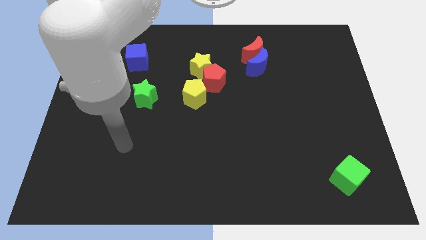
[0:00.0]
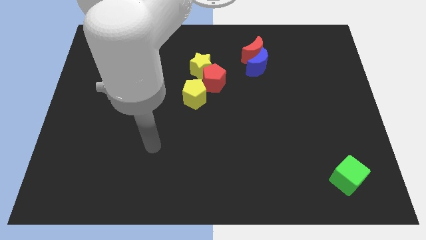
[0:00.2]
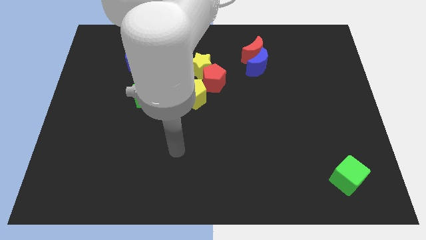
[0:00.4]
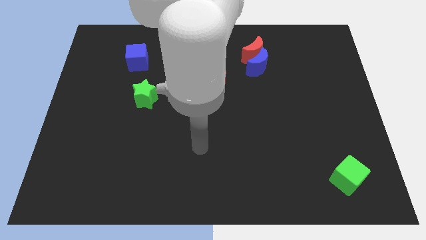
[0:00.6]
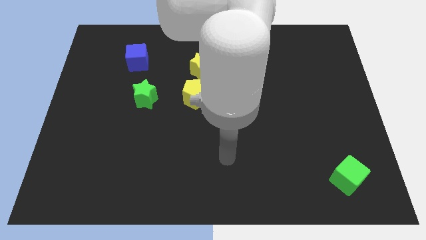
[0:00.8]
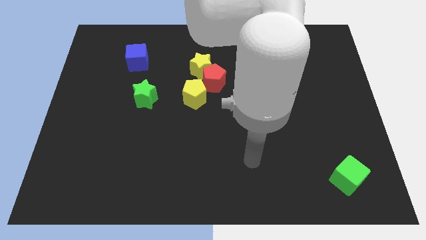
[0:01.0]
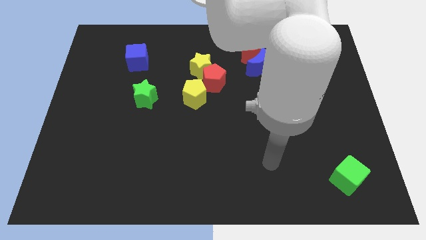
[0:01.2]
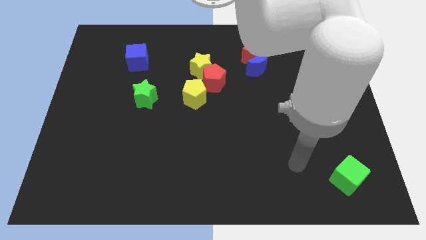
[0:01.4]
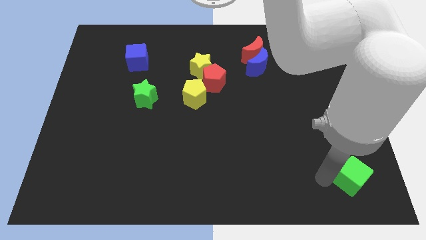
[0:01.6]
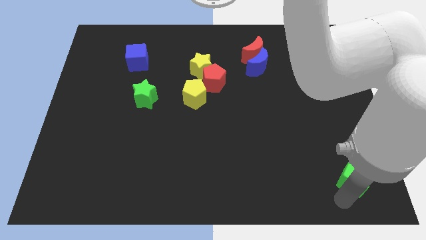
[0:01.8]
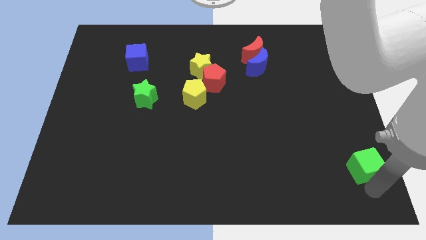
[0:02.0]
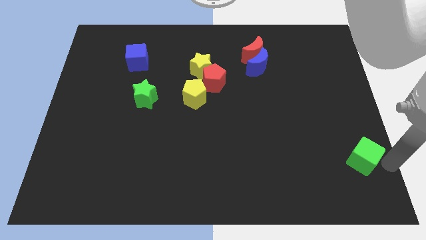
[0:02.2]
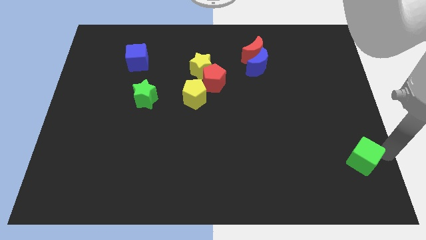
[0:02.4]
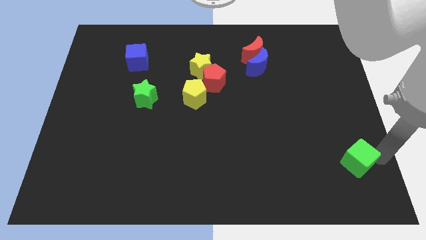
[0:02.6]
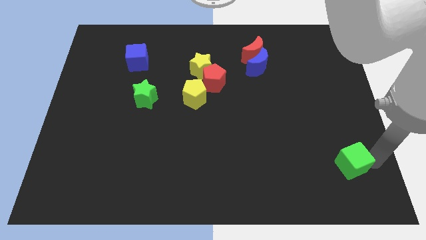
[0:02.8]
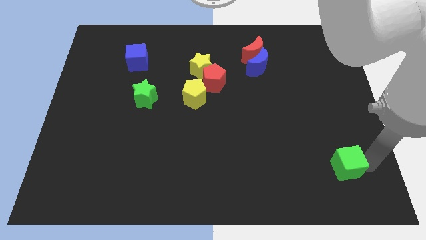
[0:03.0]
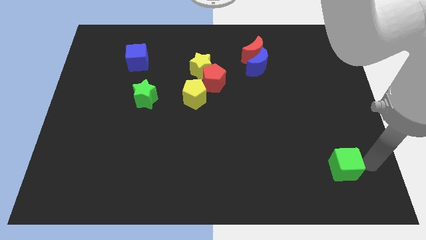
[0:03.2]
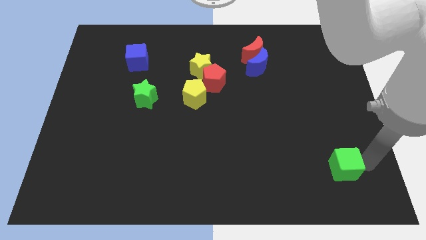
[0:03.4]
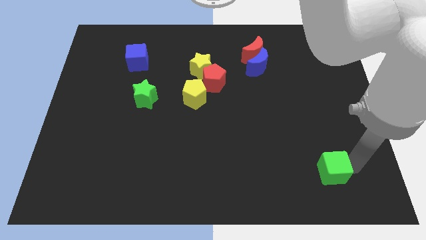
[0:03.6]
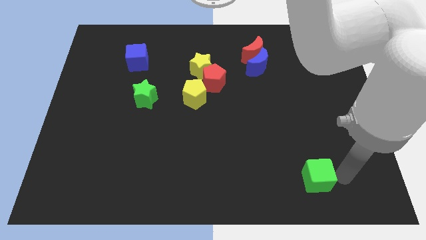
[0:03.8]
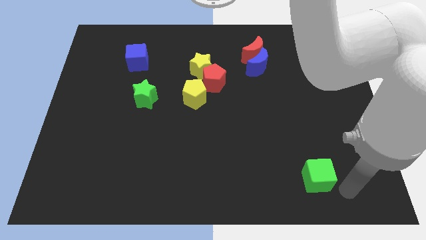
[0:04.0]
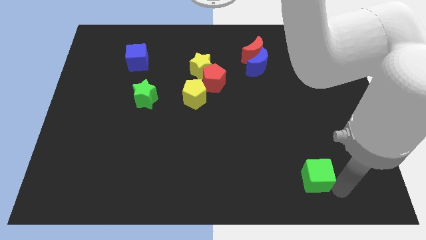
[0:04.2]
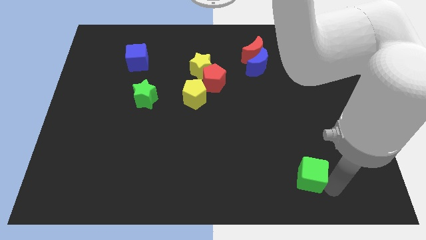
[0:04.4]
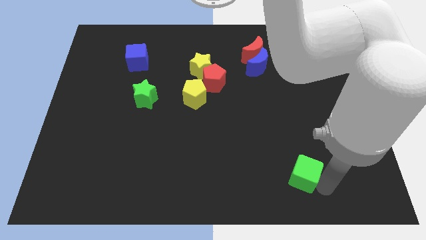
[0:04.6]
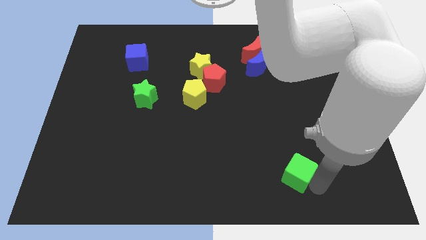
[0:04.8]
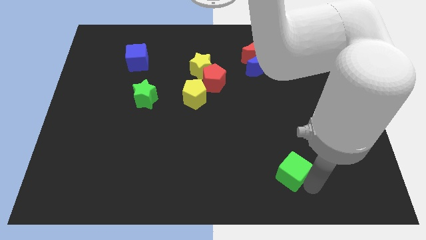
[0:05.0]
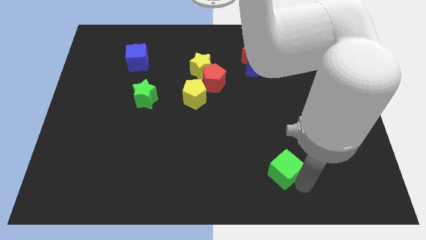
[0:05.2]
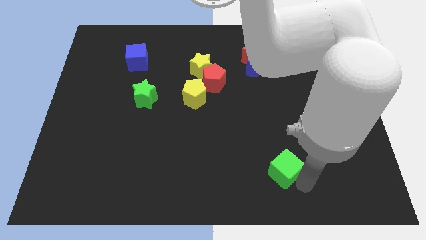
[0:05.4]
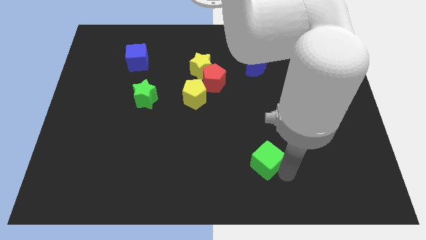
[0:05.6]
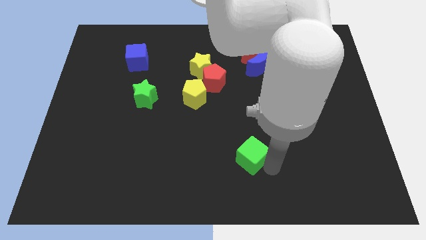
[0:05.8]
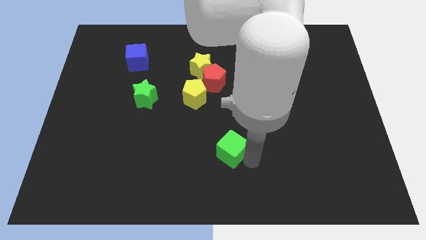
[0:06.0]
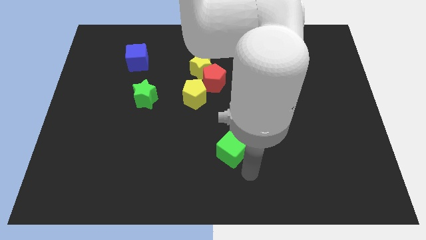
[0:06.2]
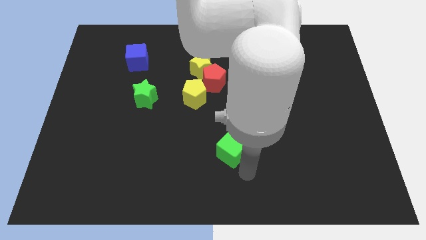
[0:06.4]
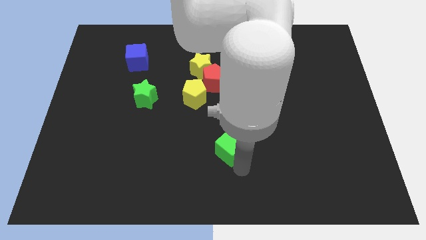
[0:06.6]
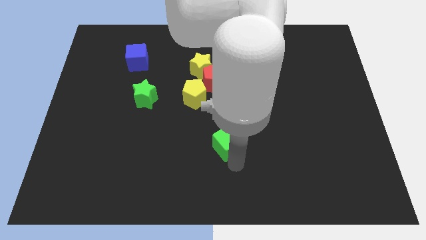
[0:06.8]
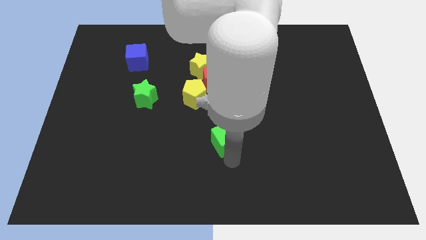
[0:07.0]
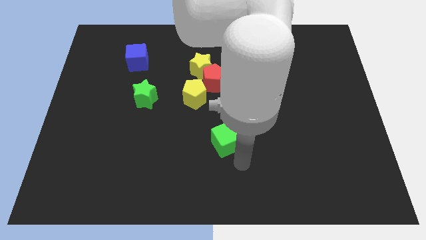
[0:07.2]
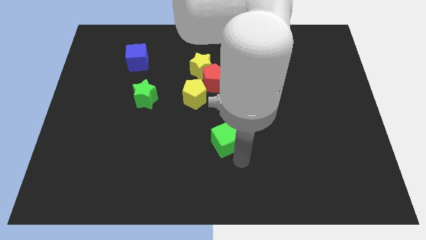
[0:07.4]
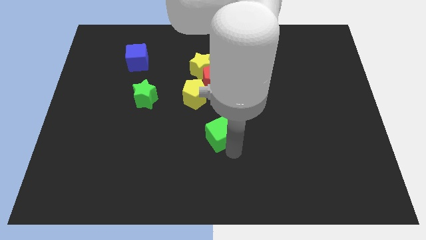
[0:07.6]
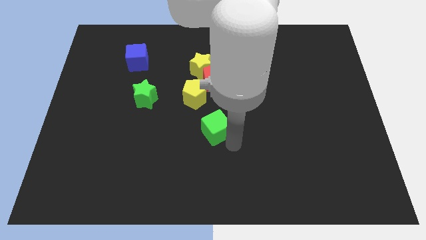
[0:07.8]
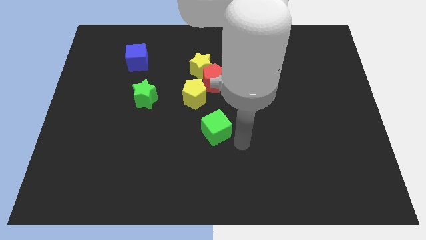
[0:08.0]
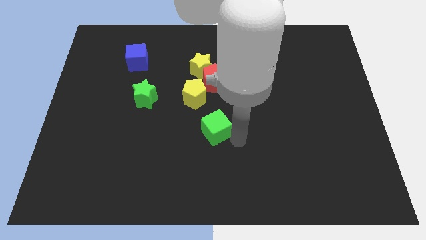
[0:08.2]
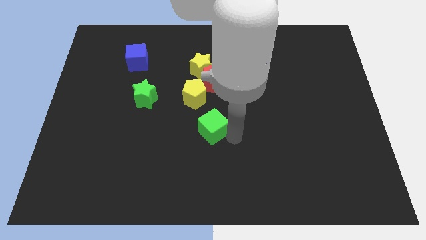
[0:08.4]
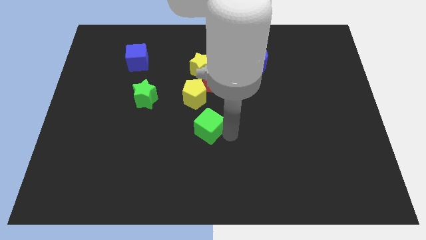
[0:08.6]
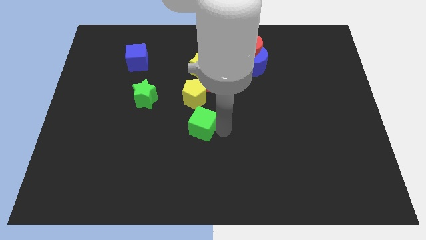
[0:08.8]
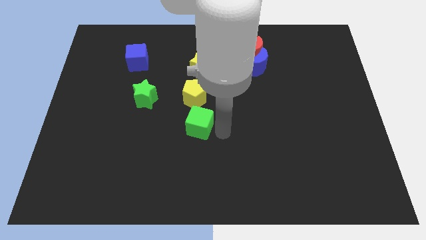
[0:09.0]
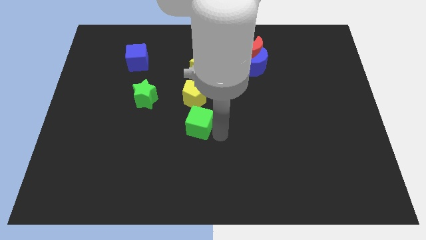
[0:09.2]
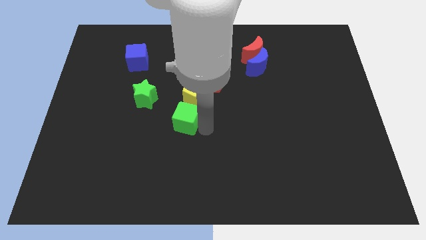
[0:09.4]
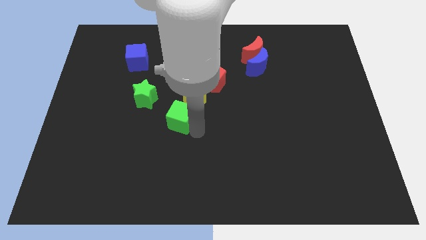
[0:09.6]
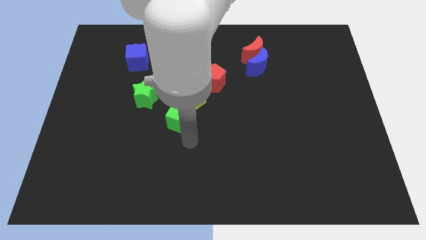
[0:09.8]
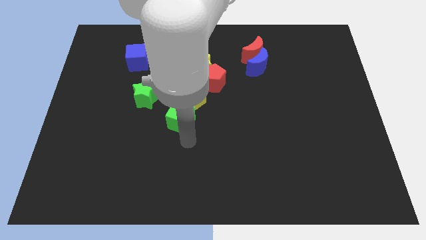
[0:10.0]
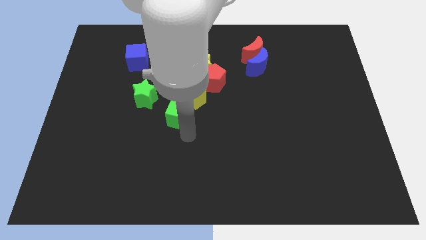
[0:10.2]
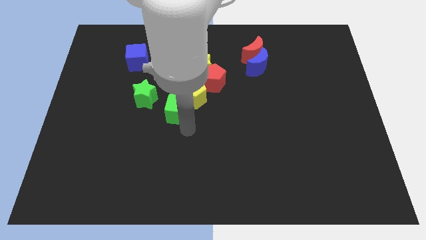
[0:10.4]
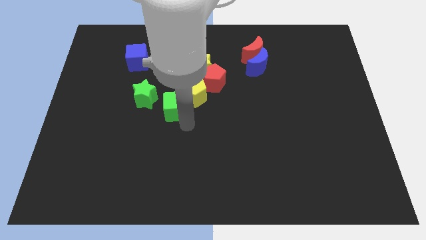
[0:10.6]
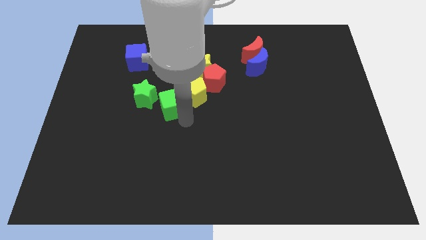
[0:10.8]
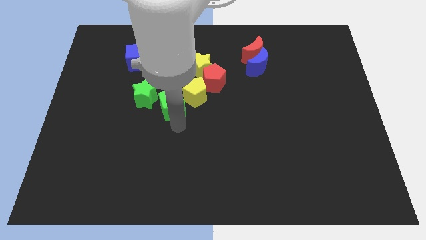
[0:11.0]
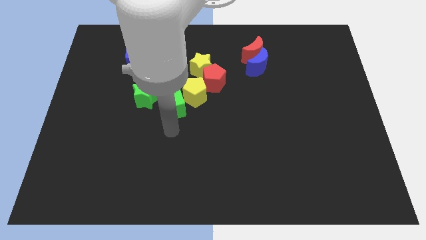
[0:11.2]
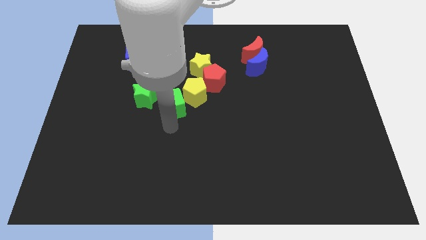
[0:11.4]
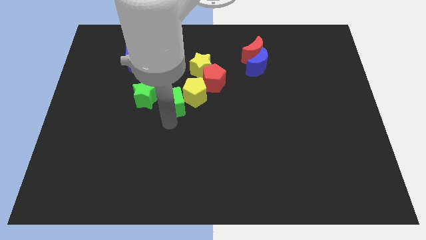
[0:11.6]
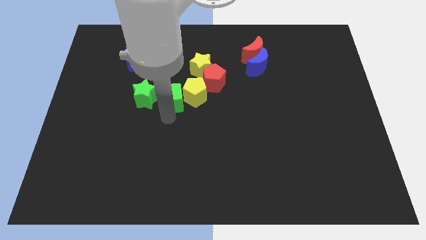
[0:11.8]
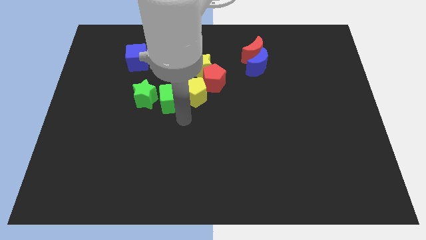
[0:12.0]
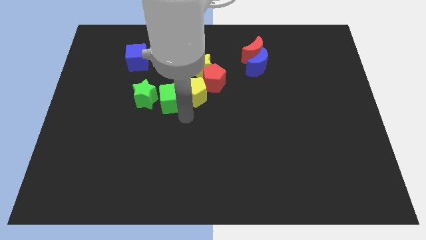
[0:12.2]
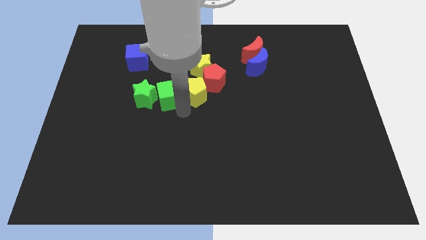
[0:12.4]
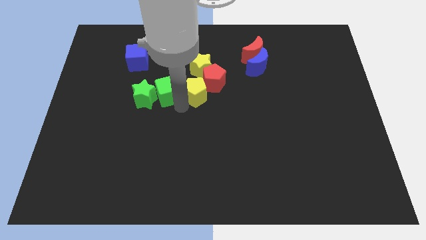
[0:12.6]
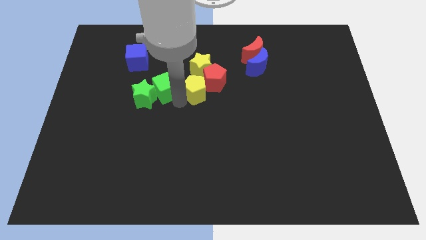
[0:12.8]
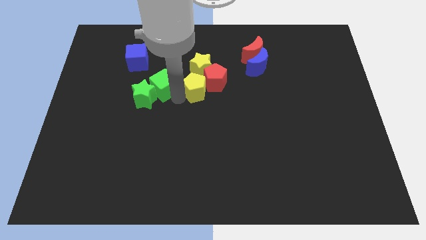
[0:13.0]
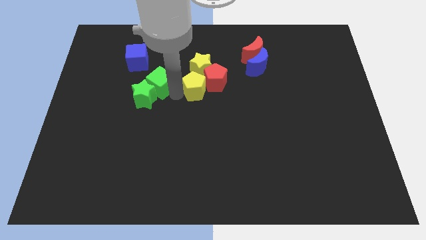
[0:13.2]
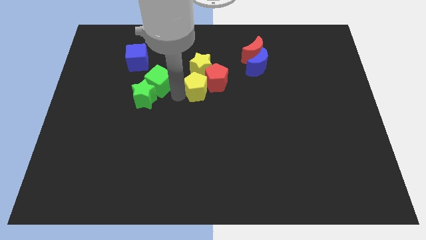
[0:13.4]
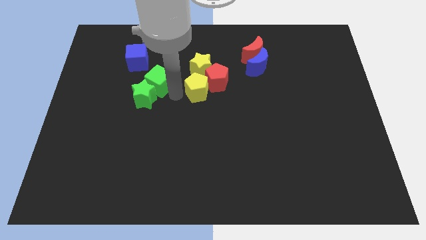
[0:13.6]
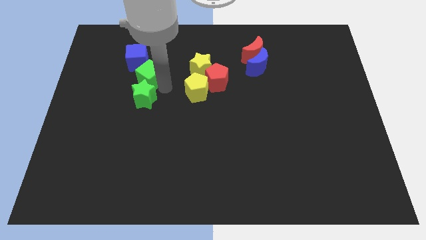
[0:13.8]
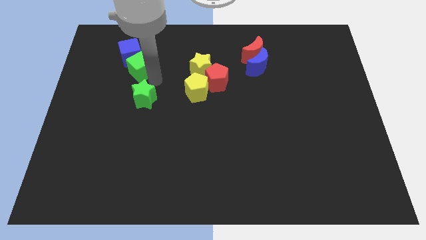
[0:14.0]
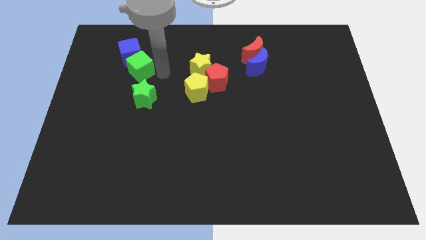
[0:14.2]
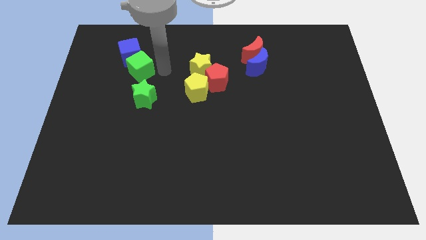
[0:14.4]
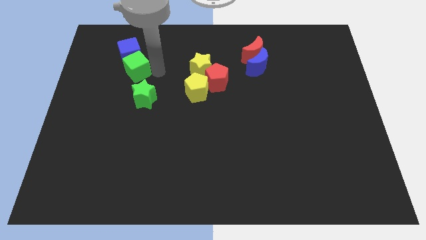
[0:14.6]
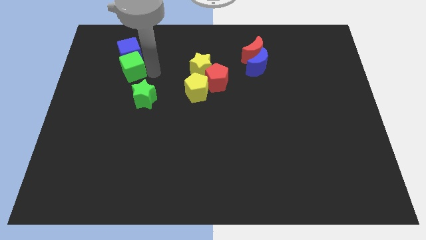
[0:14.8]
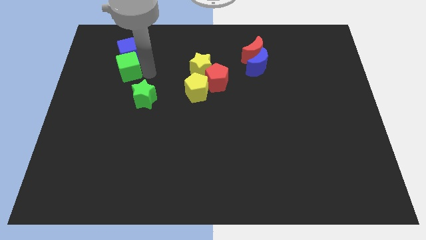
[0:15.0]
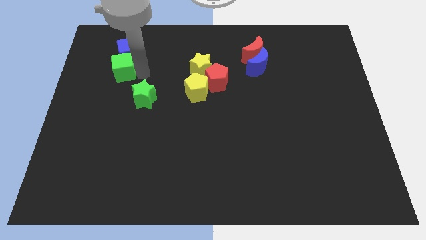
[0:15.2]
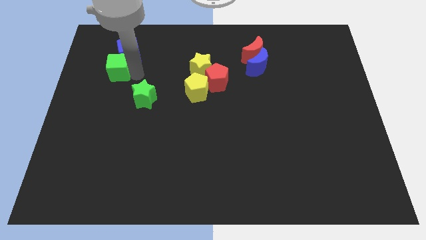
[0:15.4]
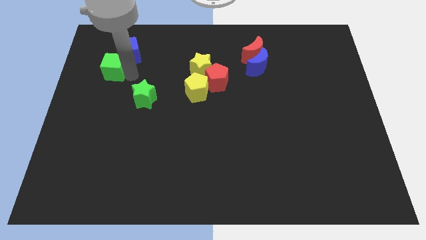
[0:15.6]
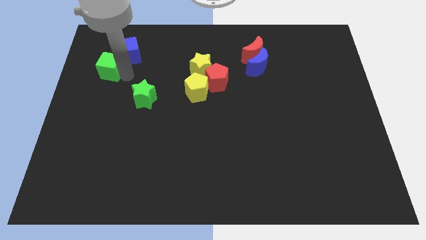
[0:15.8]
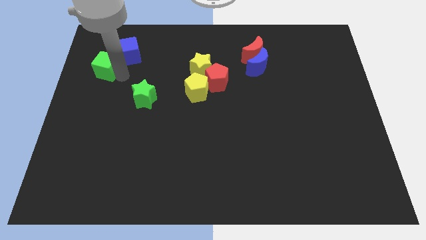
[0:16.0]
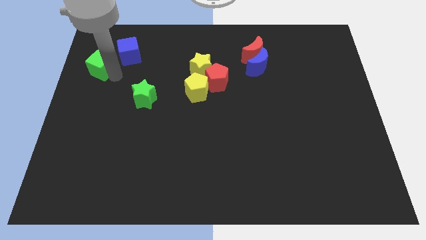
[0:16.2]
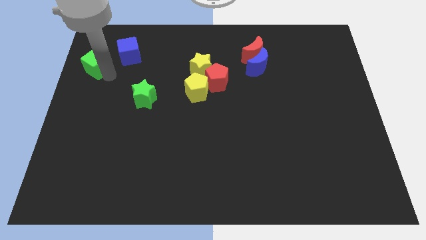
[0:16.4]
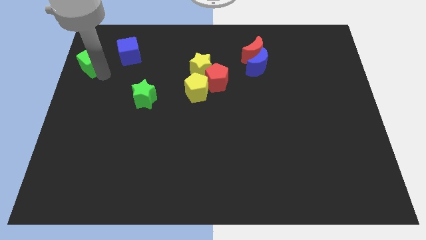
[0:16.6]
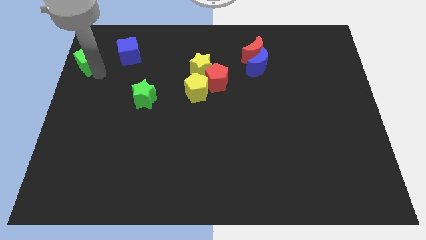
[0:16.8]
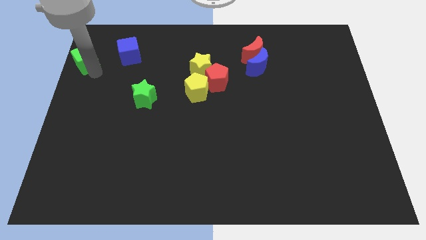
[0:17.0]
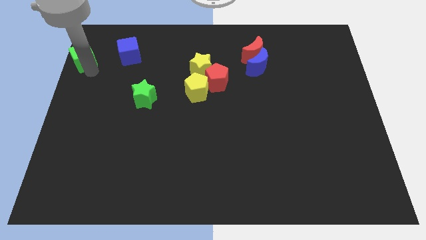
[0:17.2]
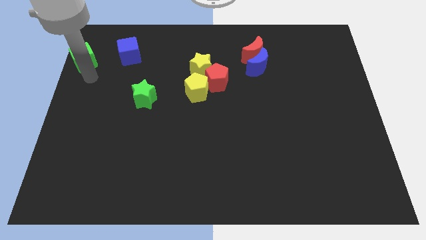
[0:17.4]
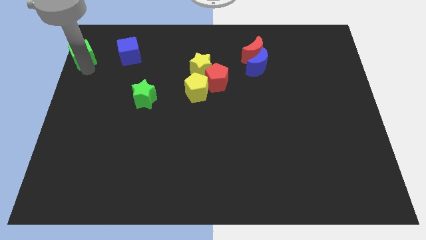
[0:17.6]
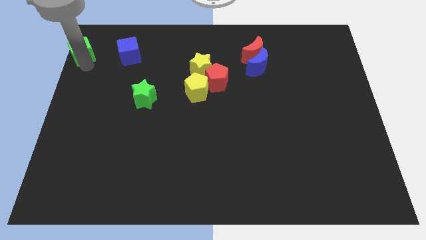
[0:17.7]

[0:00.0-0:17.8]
push the green cube to the upper left corner
